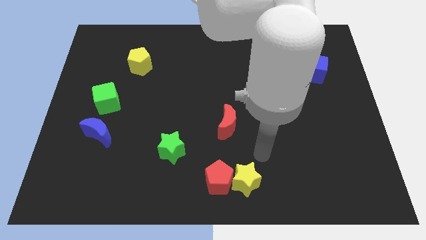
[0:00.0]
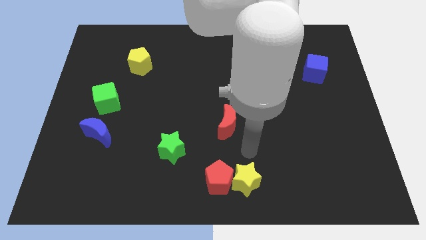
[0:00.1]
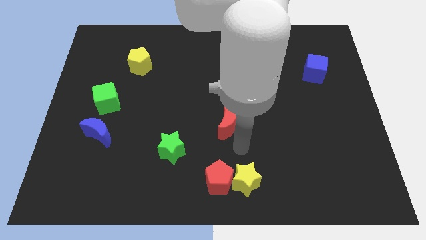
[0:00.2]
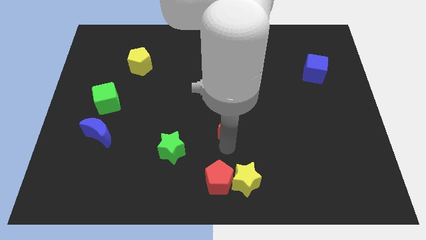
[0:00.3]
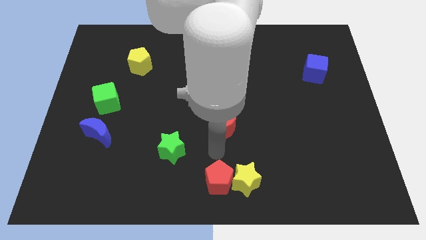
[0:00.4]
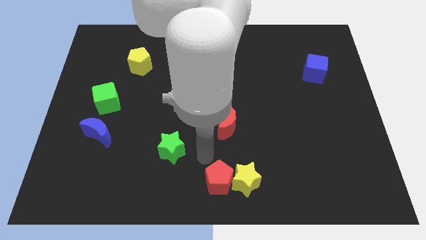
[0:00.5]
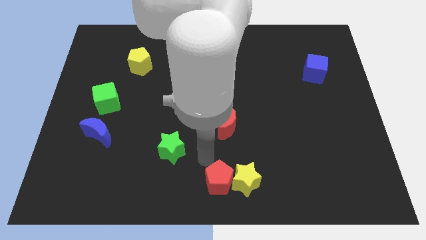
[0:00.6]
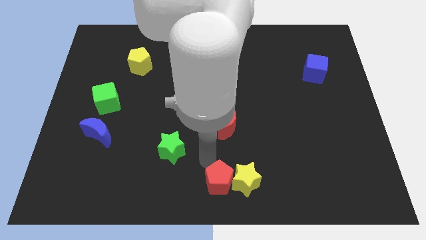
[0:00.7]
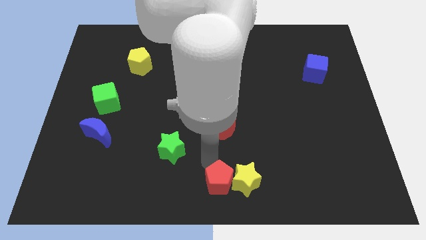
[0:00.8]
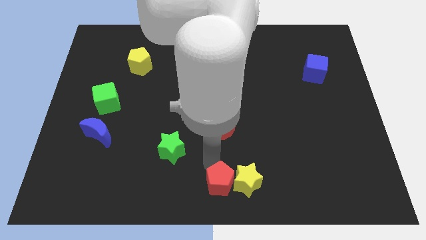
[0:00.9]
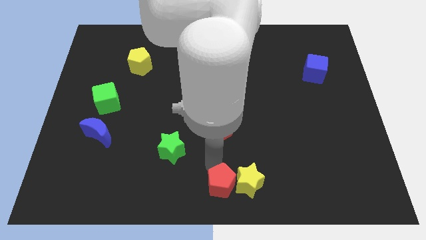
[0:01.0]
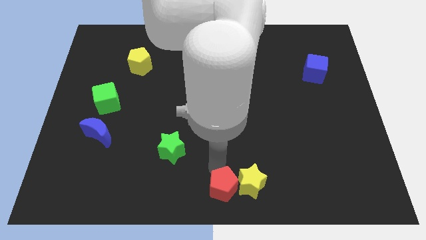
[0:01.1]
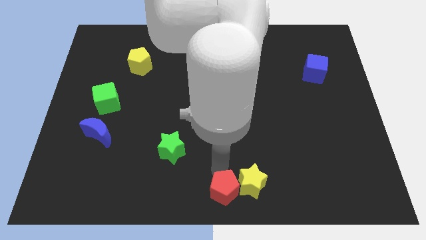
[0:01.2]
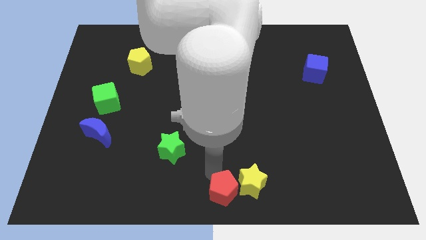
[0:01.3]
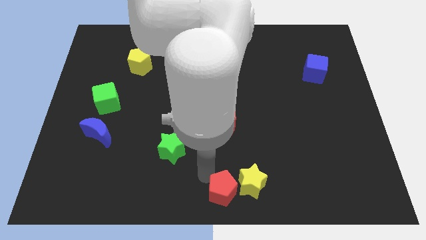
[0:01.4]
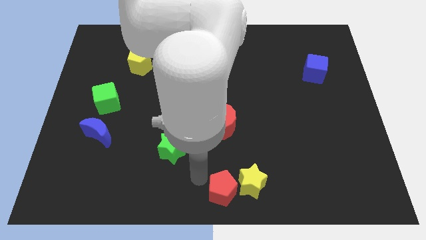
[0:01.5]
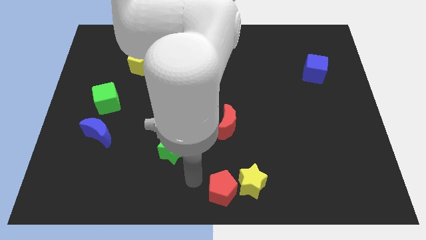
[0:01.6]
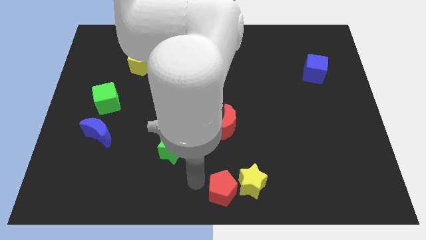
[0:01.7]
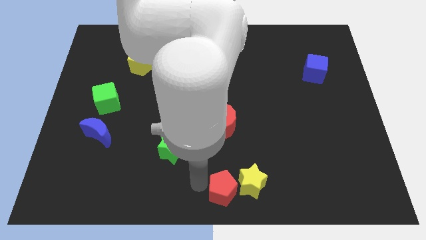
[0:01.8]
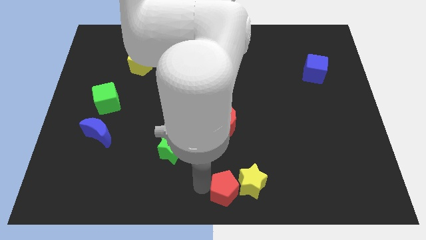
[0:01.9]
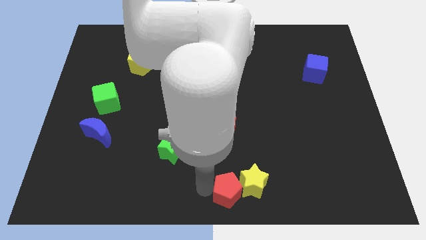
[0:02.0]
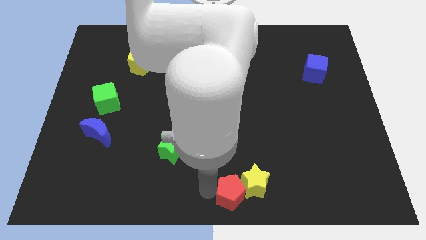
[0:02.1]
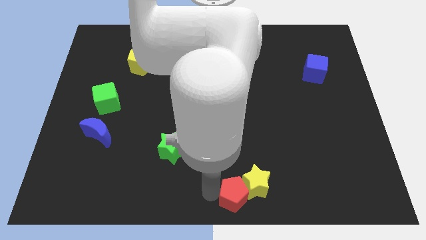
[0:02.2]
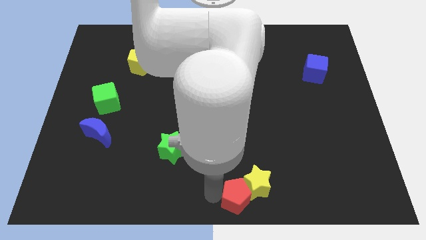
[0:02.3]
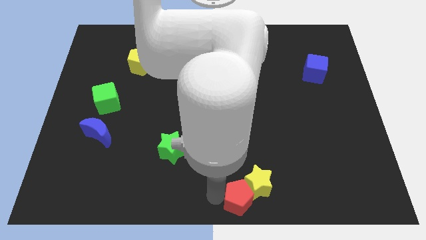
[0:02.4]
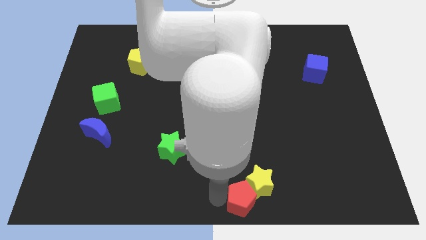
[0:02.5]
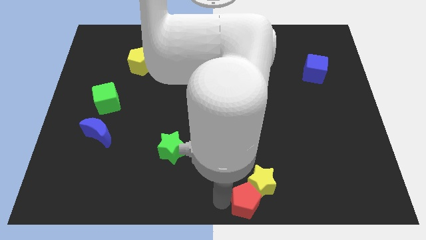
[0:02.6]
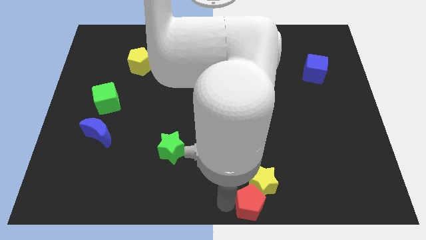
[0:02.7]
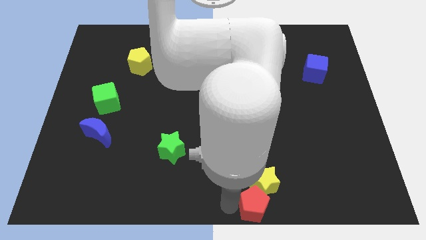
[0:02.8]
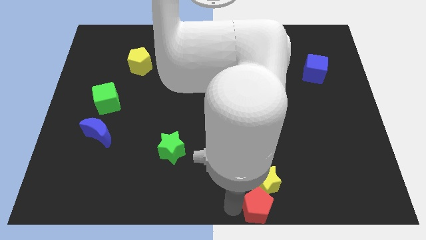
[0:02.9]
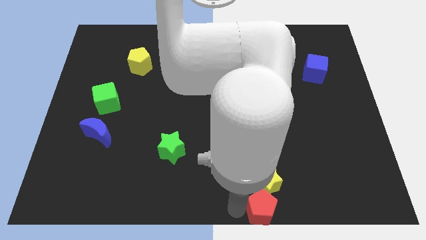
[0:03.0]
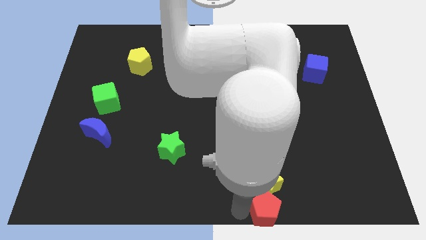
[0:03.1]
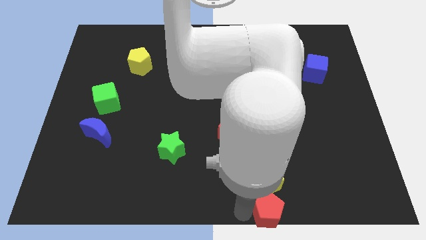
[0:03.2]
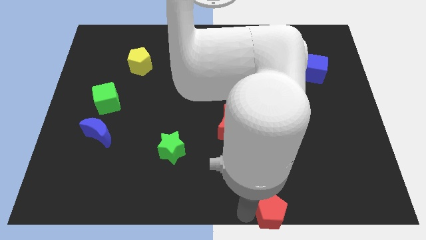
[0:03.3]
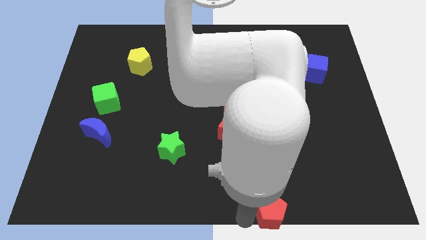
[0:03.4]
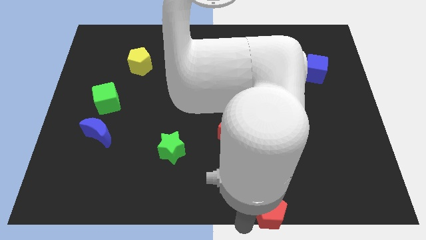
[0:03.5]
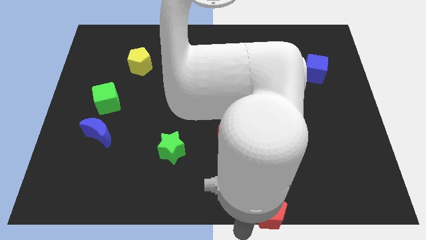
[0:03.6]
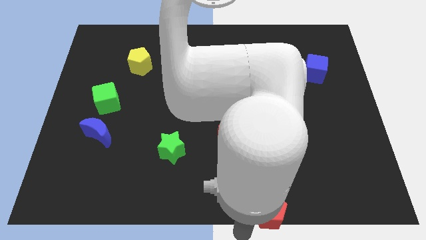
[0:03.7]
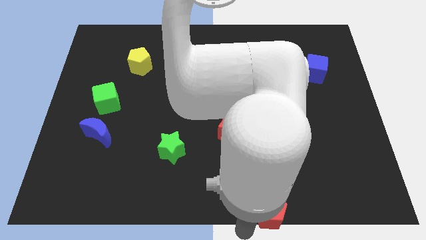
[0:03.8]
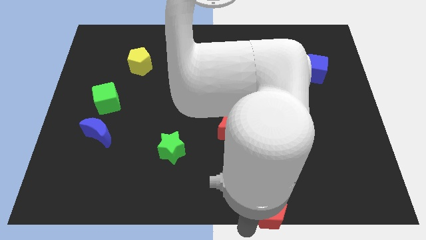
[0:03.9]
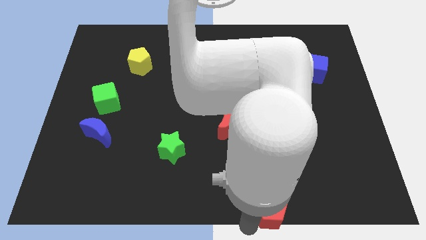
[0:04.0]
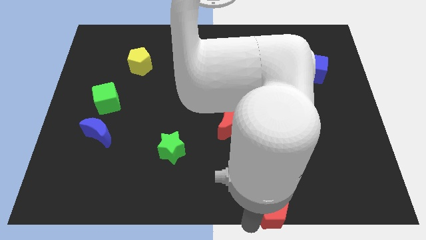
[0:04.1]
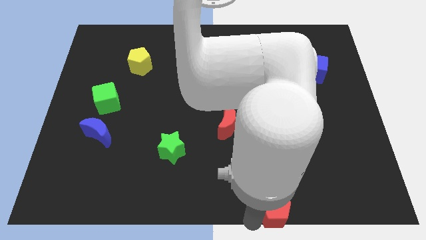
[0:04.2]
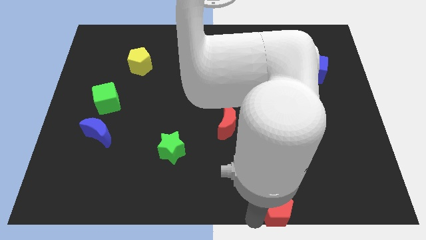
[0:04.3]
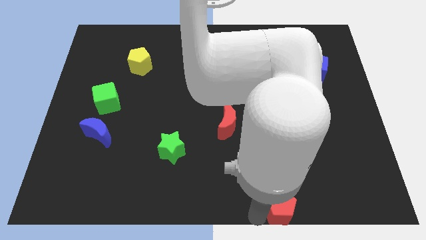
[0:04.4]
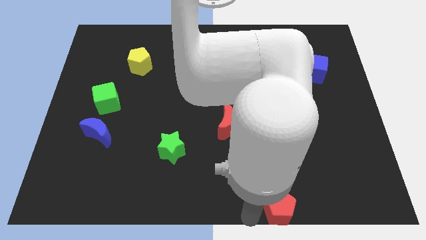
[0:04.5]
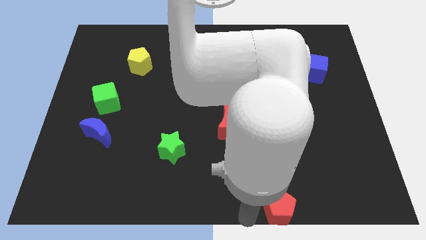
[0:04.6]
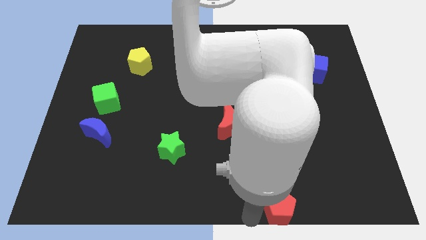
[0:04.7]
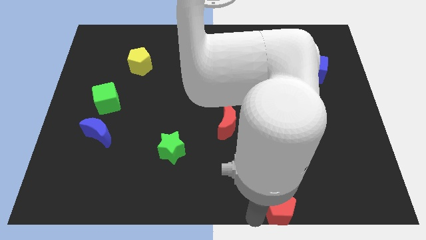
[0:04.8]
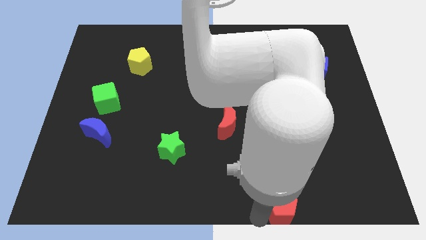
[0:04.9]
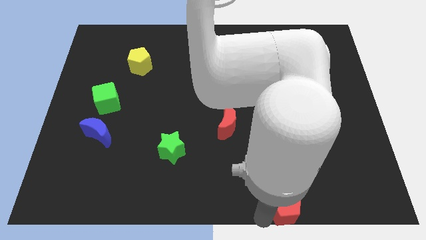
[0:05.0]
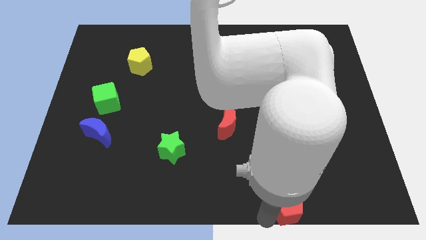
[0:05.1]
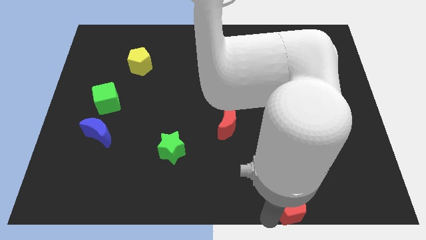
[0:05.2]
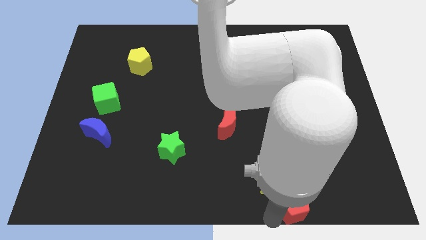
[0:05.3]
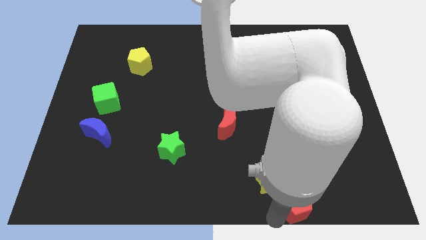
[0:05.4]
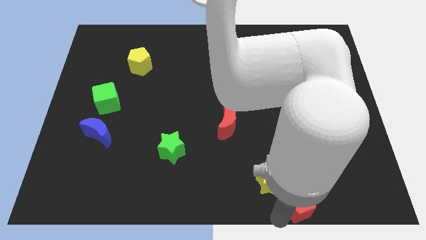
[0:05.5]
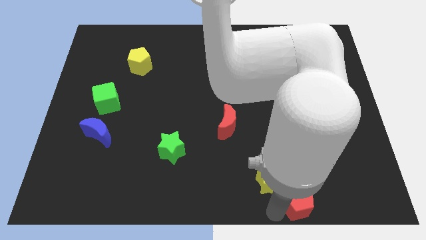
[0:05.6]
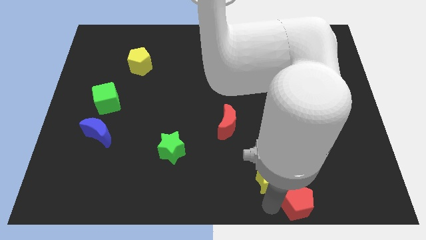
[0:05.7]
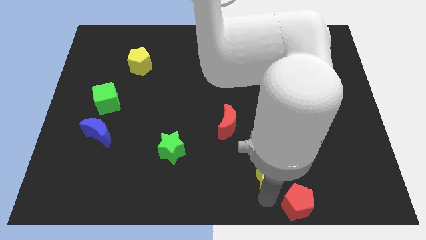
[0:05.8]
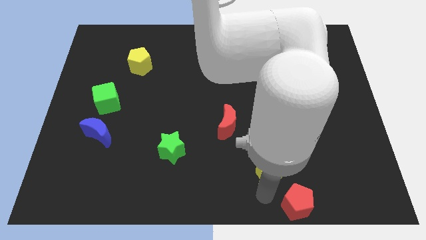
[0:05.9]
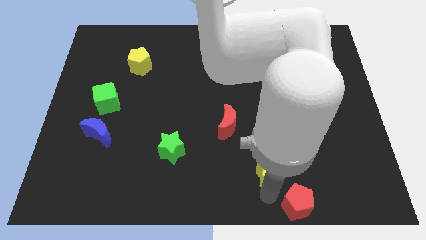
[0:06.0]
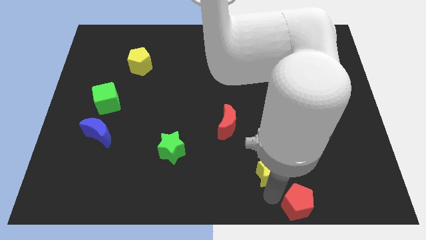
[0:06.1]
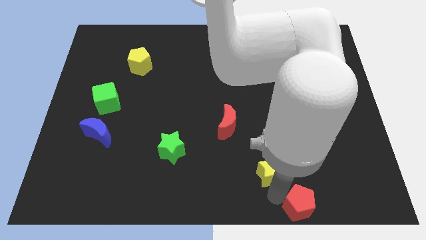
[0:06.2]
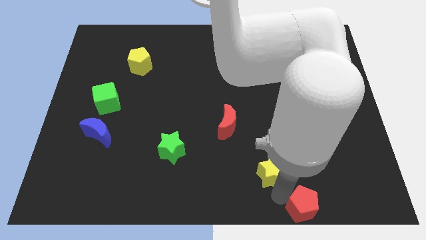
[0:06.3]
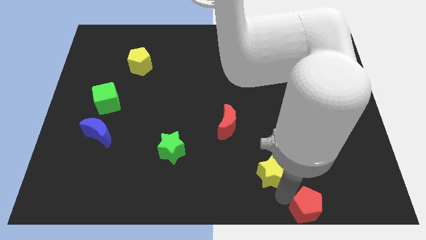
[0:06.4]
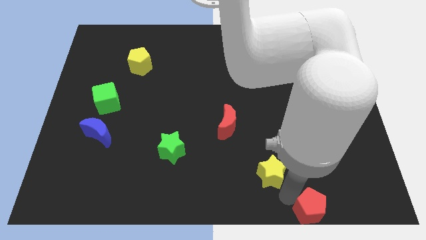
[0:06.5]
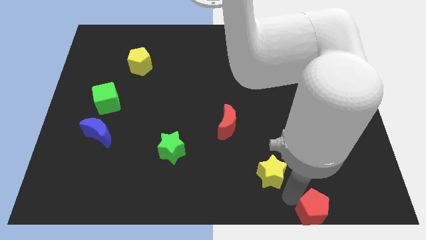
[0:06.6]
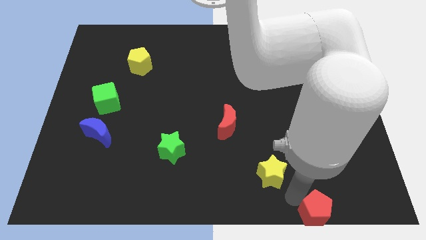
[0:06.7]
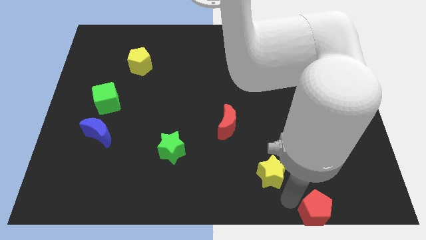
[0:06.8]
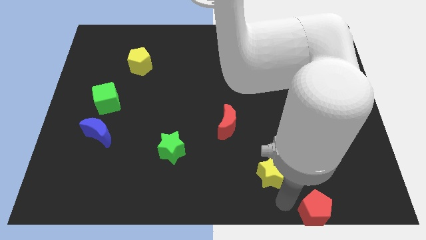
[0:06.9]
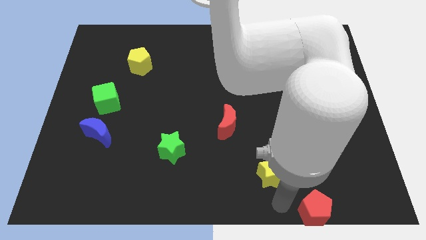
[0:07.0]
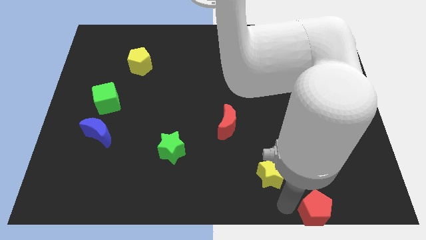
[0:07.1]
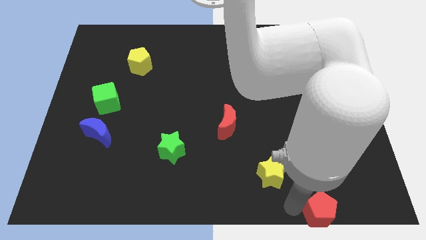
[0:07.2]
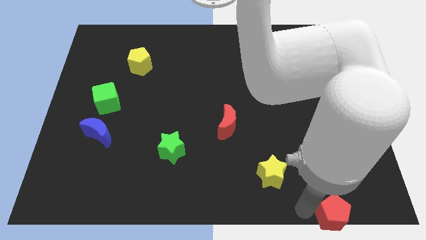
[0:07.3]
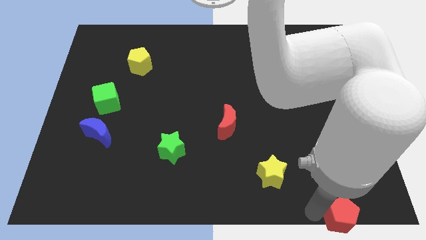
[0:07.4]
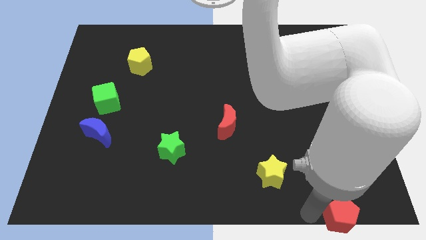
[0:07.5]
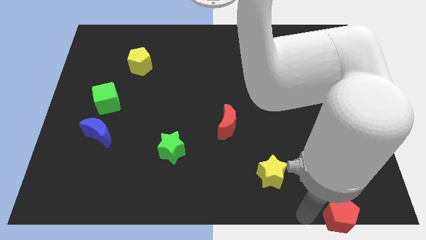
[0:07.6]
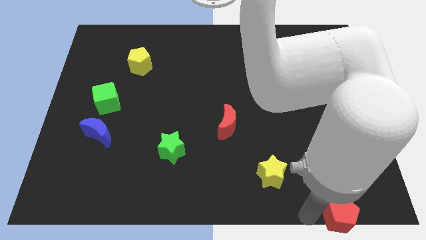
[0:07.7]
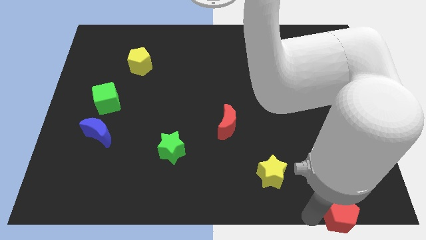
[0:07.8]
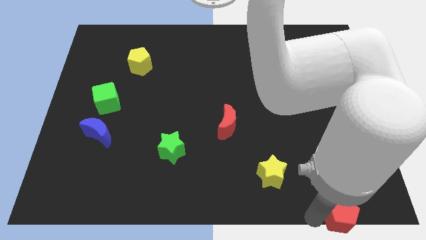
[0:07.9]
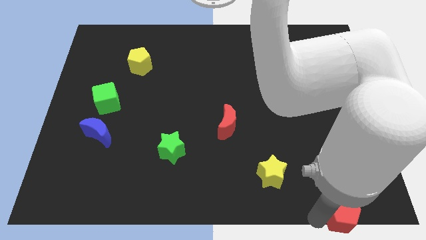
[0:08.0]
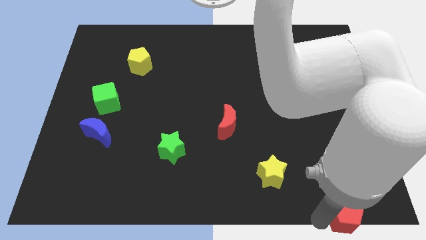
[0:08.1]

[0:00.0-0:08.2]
slide the red pentagon to the bottom right corner
